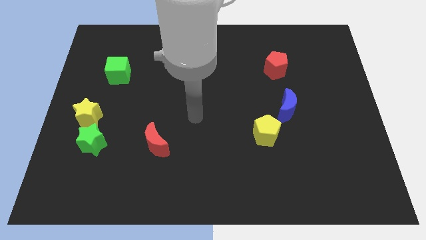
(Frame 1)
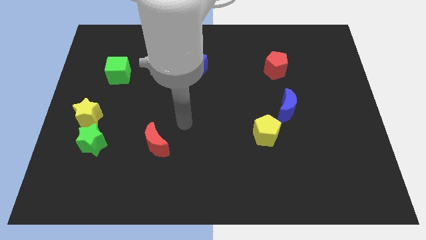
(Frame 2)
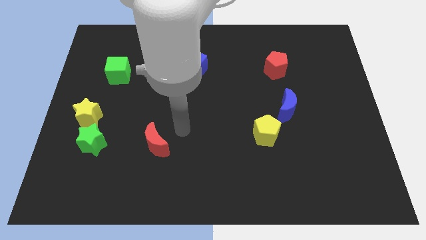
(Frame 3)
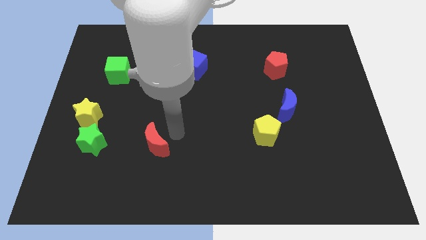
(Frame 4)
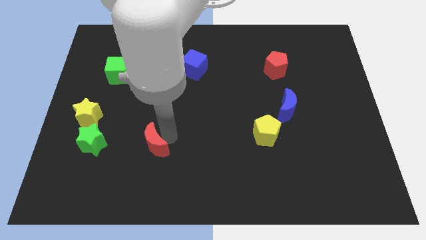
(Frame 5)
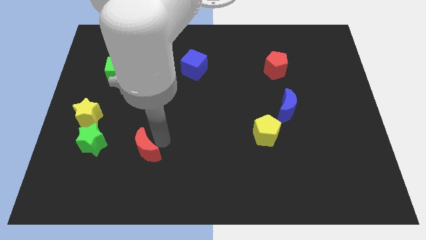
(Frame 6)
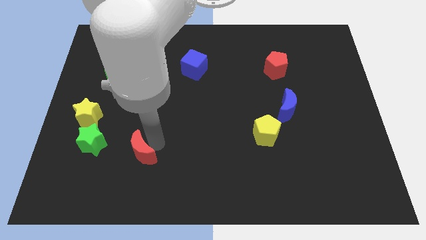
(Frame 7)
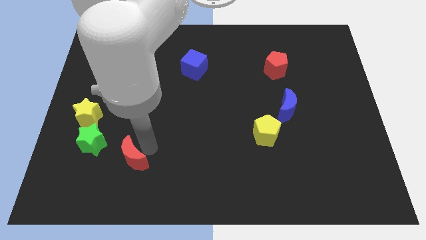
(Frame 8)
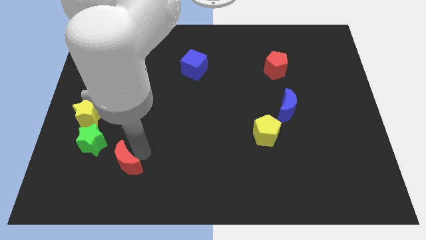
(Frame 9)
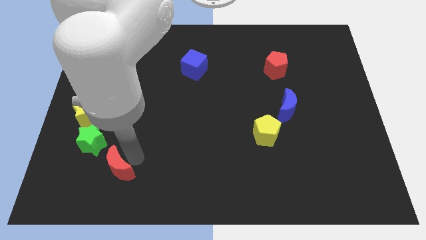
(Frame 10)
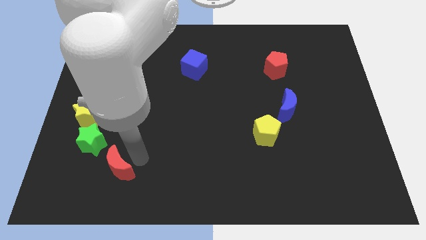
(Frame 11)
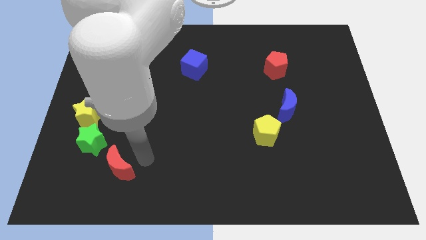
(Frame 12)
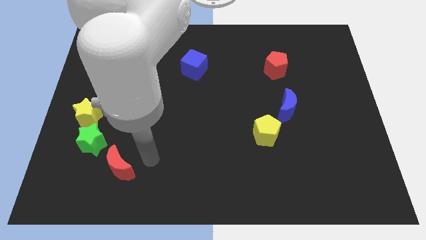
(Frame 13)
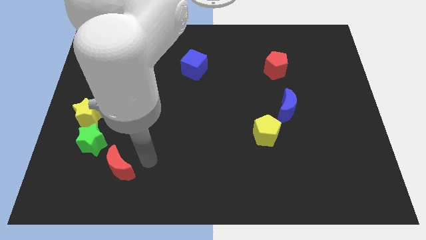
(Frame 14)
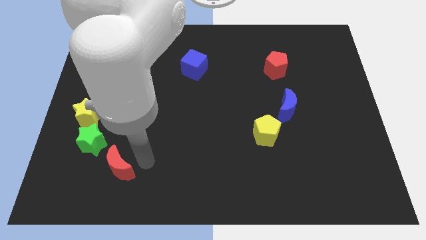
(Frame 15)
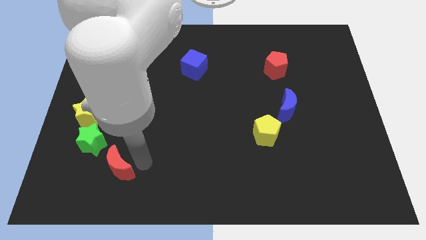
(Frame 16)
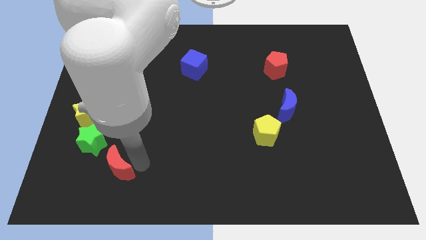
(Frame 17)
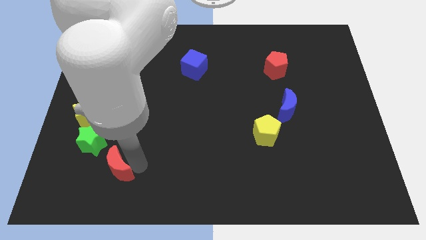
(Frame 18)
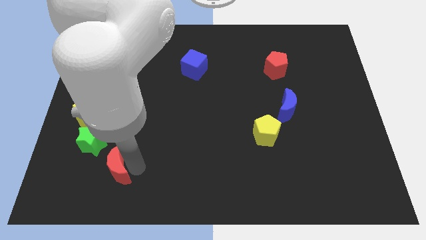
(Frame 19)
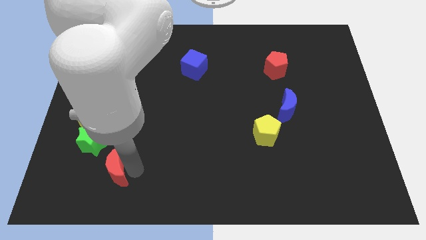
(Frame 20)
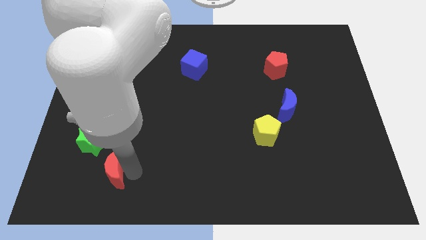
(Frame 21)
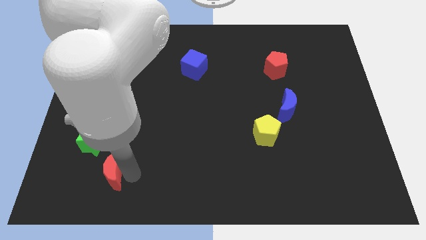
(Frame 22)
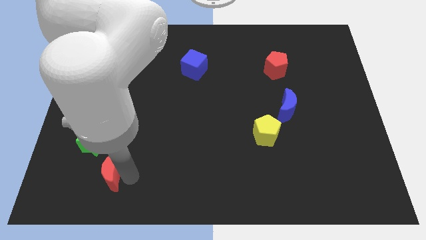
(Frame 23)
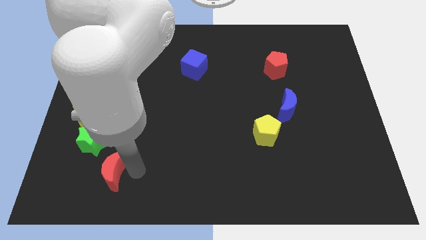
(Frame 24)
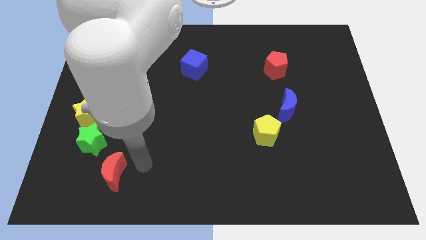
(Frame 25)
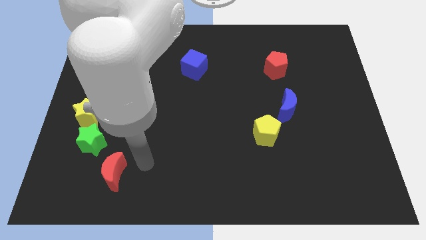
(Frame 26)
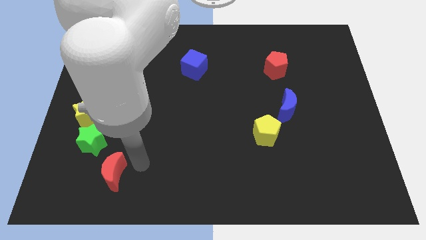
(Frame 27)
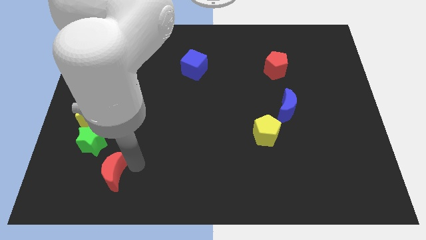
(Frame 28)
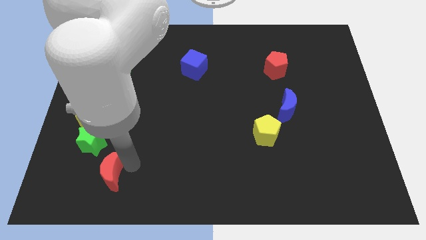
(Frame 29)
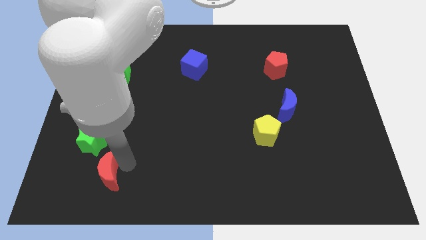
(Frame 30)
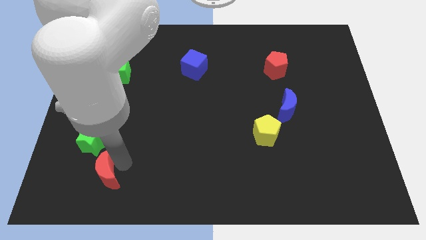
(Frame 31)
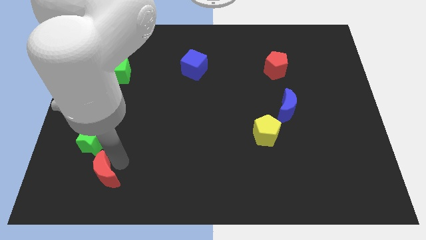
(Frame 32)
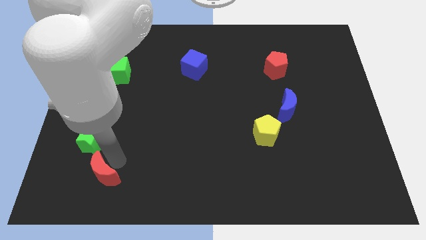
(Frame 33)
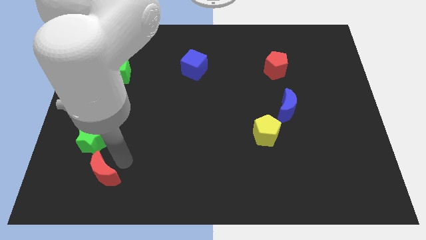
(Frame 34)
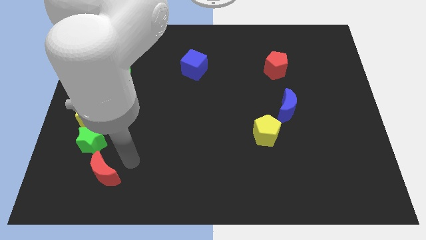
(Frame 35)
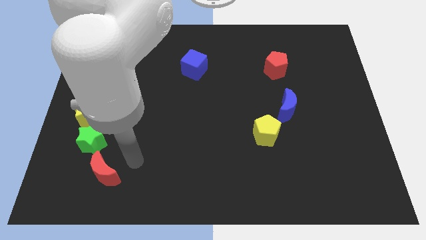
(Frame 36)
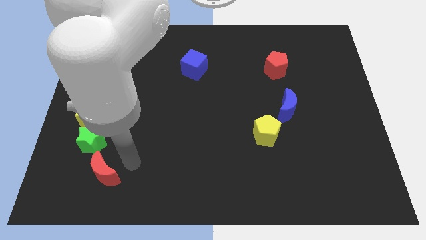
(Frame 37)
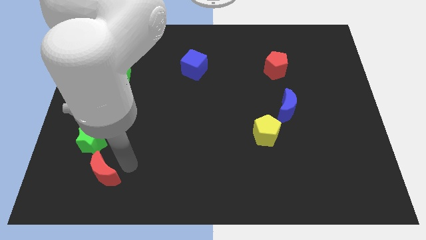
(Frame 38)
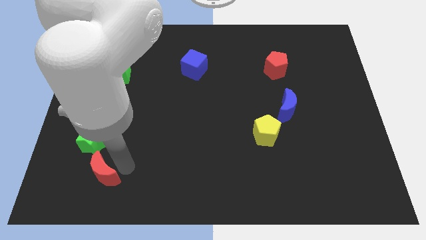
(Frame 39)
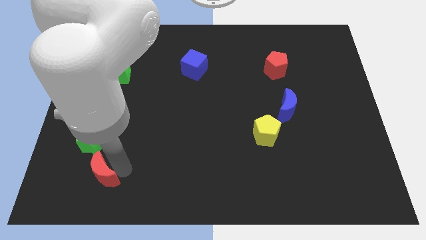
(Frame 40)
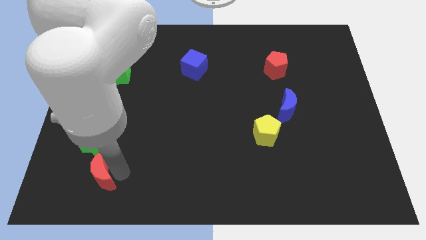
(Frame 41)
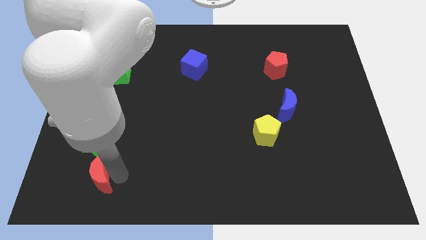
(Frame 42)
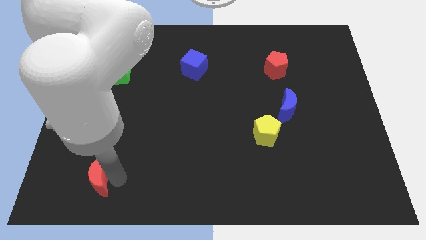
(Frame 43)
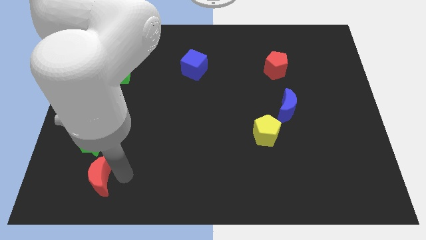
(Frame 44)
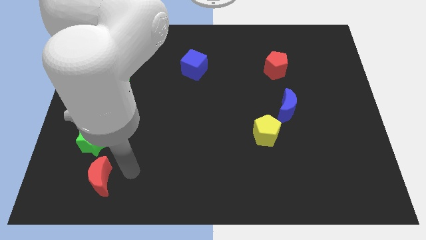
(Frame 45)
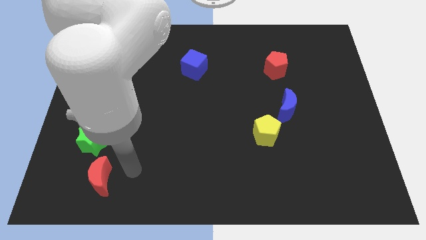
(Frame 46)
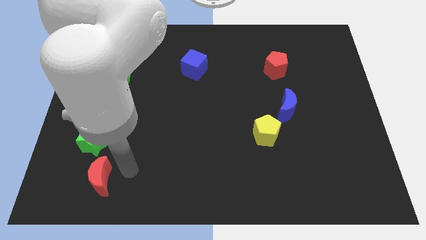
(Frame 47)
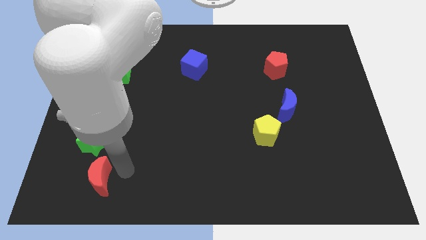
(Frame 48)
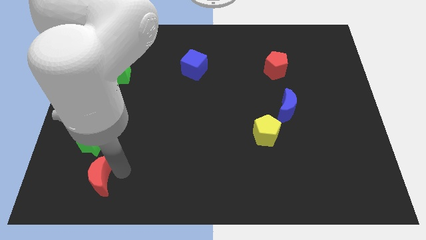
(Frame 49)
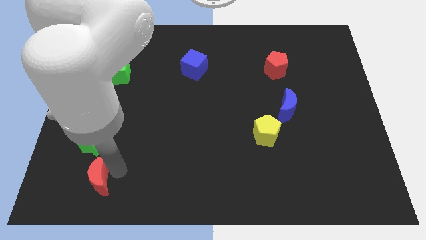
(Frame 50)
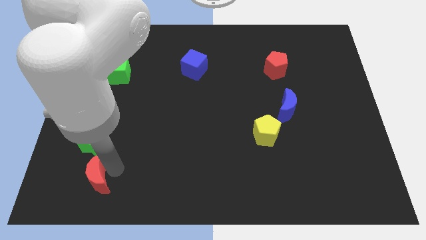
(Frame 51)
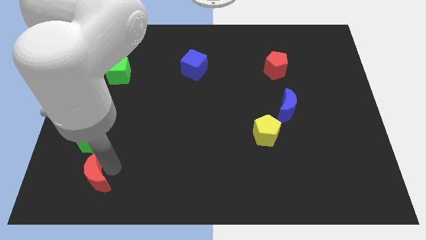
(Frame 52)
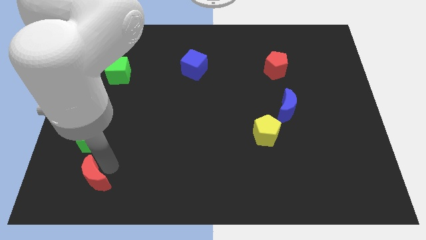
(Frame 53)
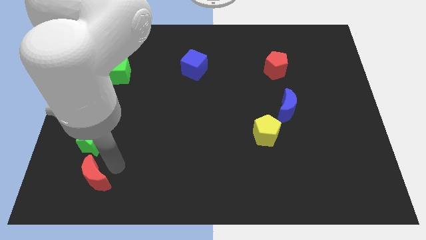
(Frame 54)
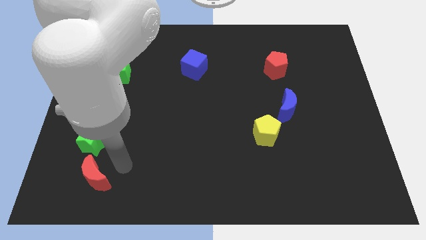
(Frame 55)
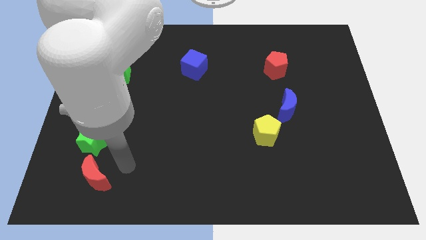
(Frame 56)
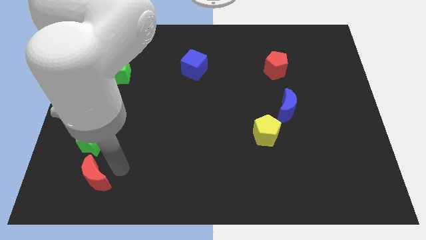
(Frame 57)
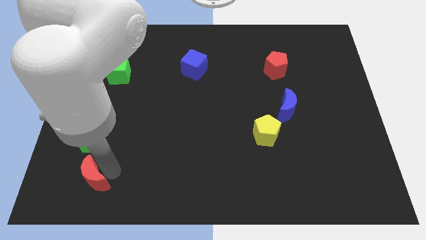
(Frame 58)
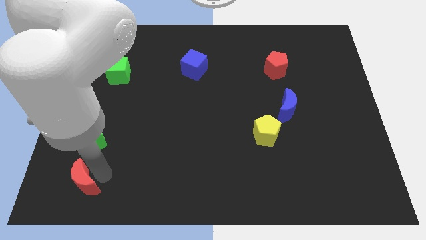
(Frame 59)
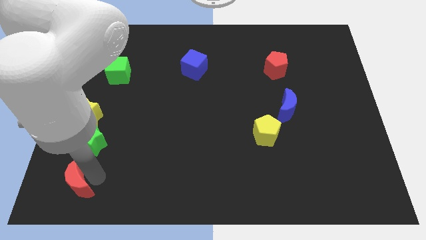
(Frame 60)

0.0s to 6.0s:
move the red moon to the bottom left
